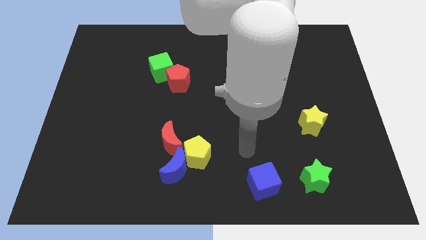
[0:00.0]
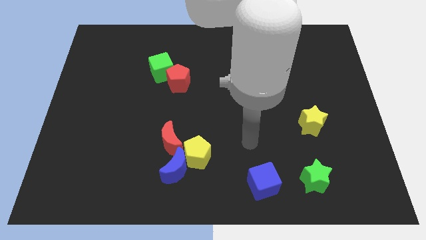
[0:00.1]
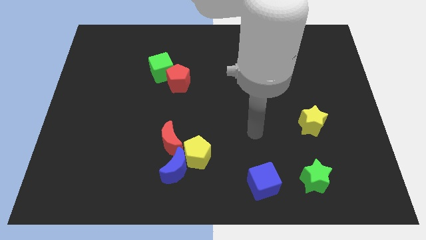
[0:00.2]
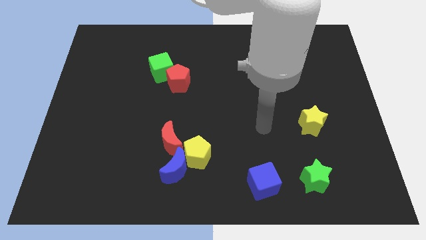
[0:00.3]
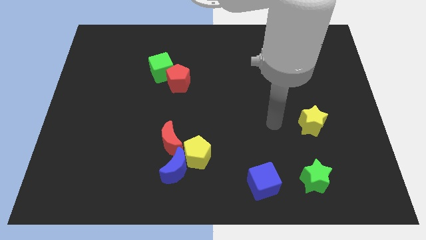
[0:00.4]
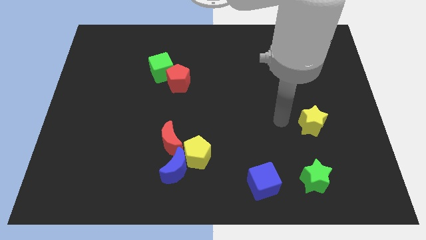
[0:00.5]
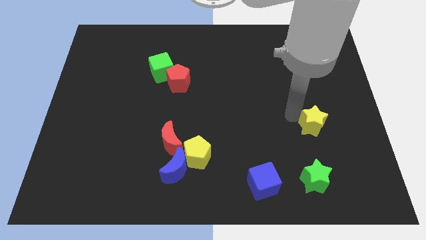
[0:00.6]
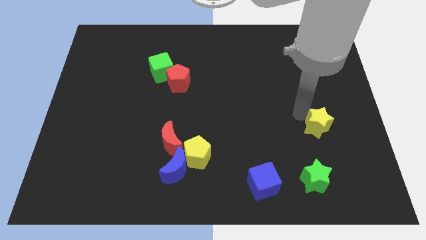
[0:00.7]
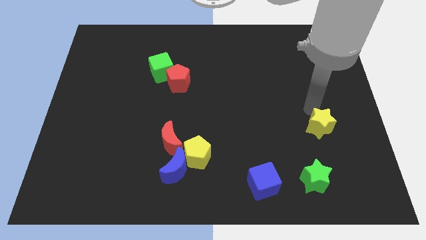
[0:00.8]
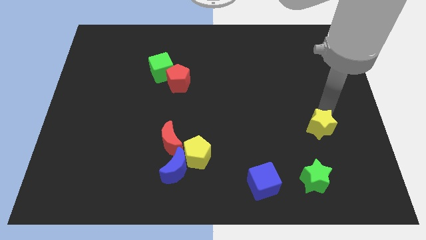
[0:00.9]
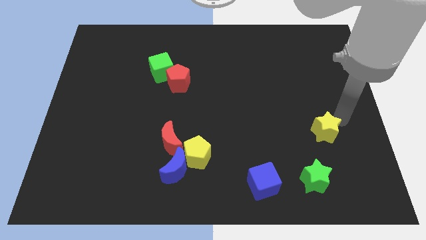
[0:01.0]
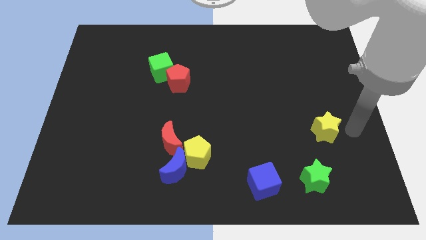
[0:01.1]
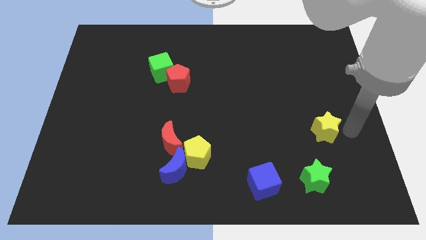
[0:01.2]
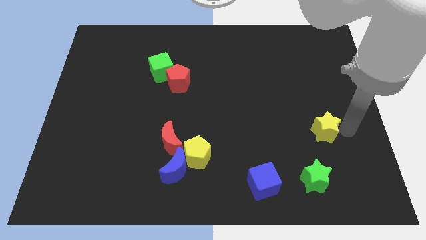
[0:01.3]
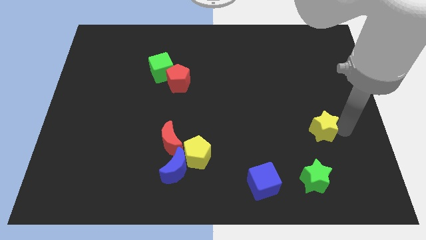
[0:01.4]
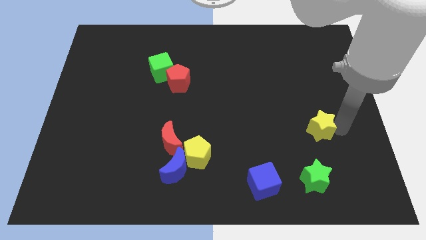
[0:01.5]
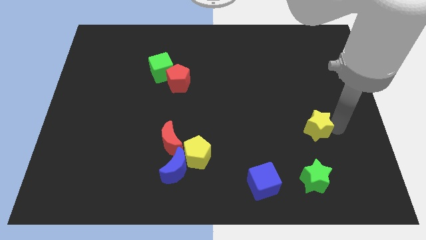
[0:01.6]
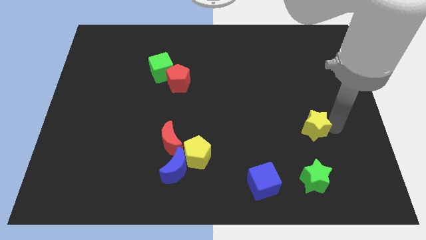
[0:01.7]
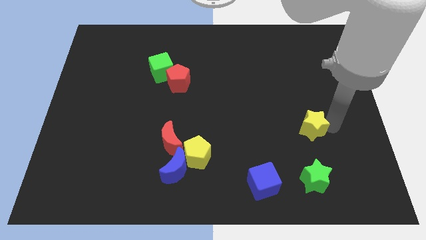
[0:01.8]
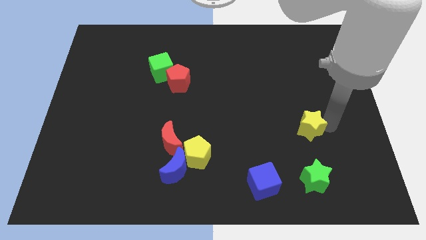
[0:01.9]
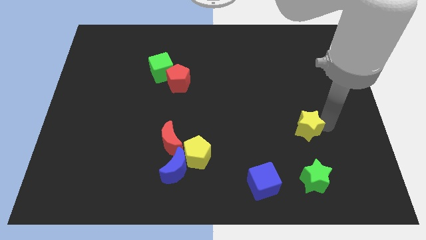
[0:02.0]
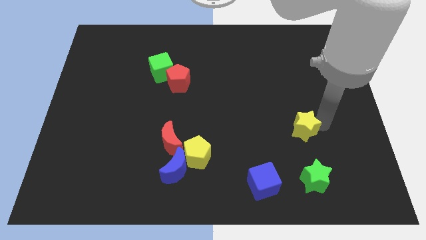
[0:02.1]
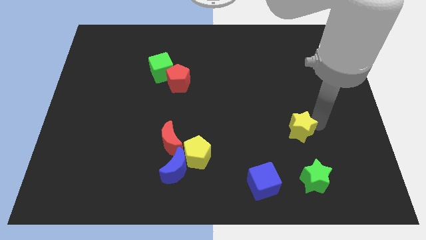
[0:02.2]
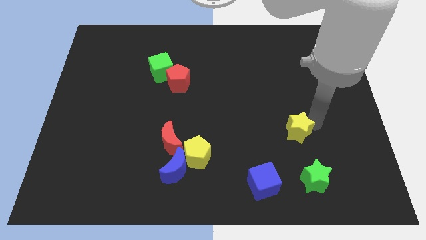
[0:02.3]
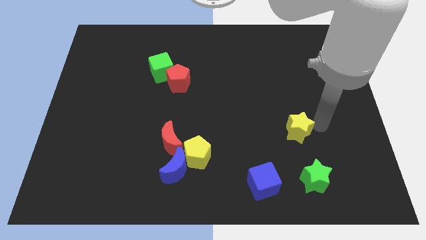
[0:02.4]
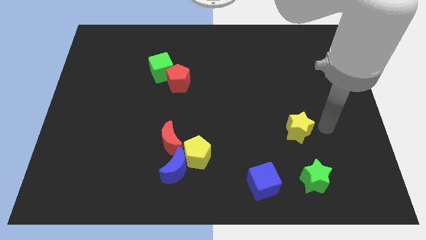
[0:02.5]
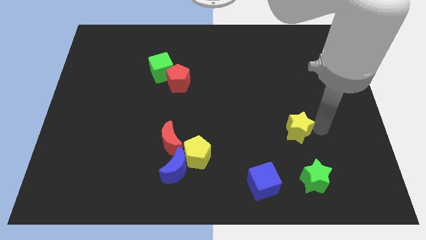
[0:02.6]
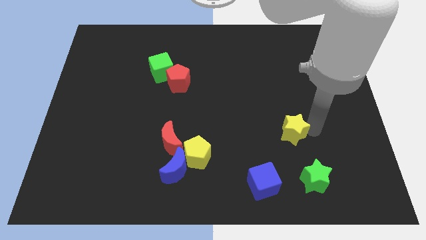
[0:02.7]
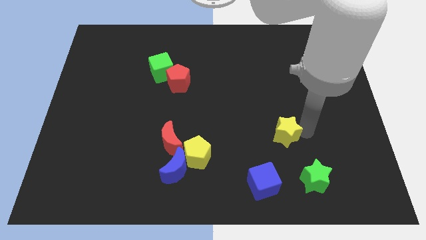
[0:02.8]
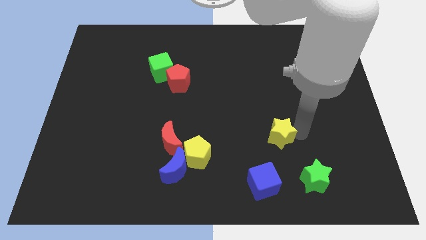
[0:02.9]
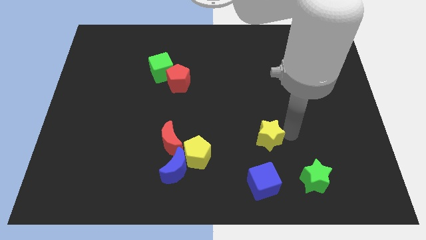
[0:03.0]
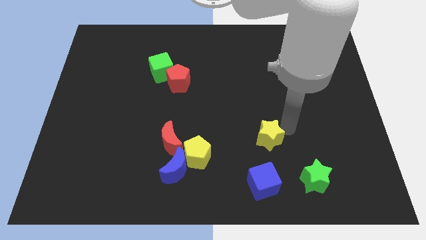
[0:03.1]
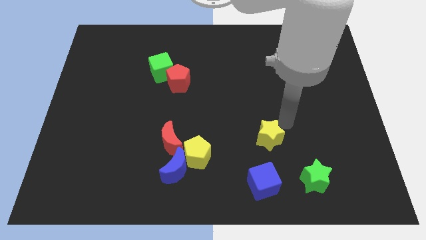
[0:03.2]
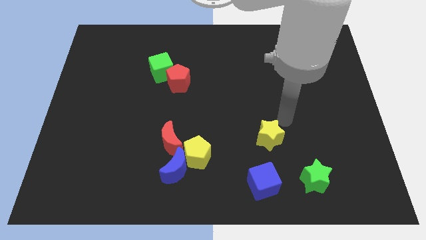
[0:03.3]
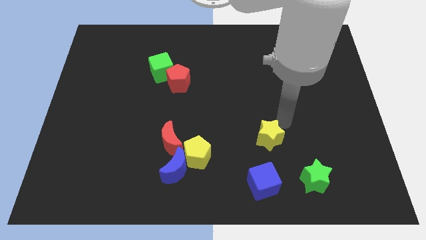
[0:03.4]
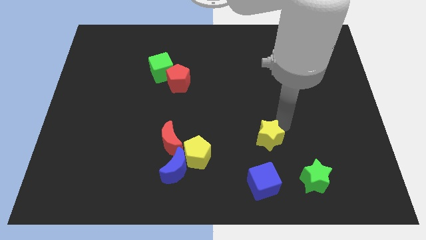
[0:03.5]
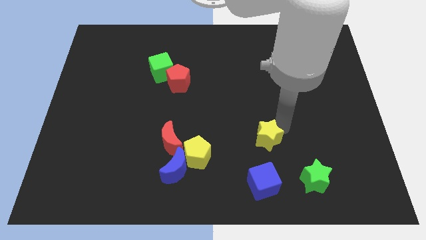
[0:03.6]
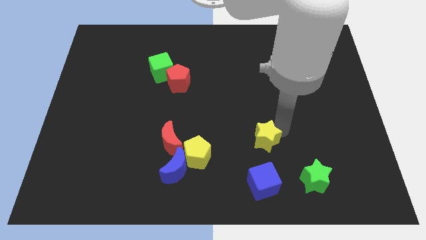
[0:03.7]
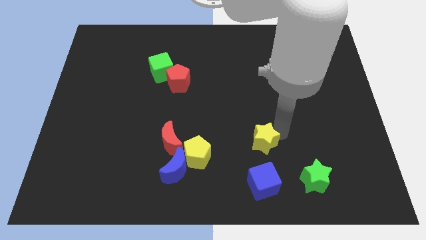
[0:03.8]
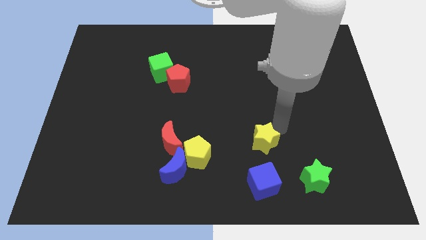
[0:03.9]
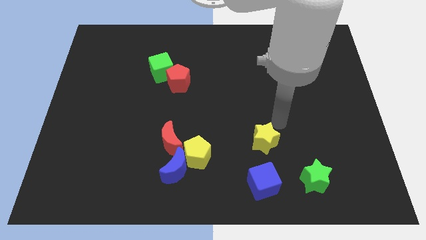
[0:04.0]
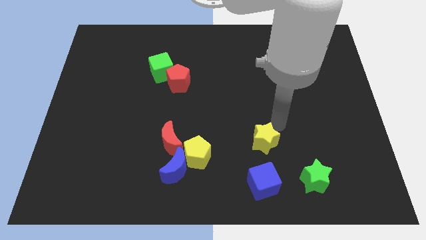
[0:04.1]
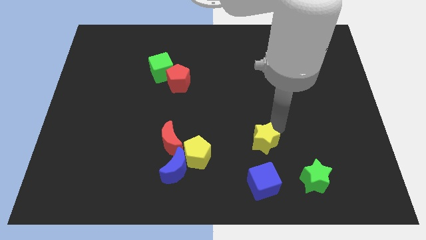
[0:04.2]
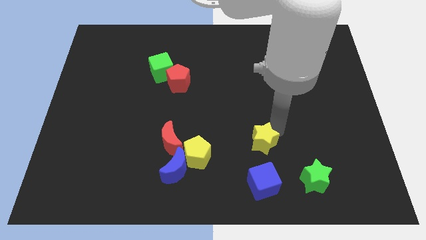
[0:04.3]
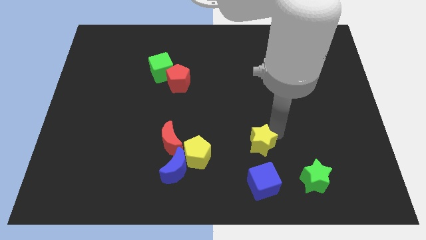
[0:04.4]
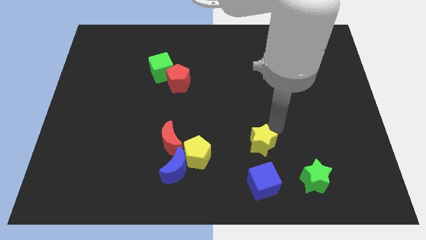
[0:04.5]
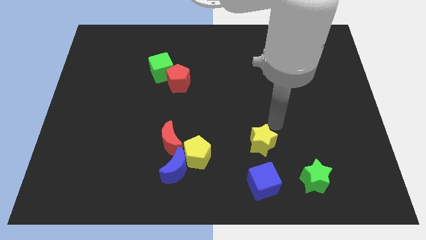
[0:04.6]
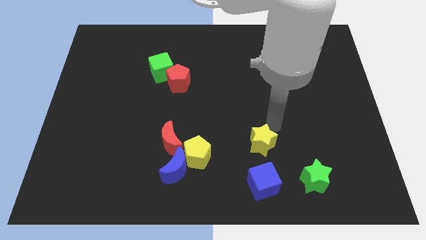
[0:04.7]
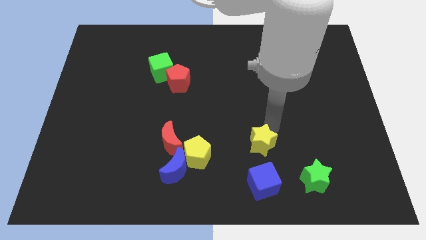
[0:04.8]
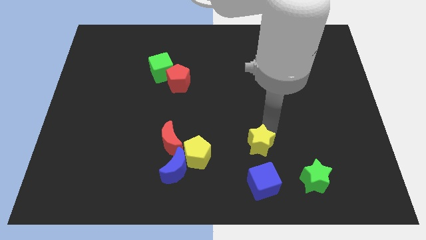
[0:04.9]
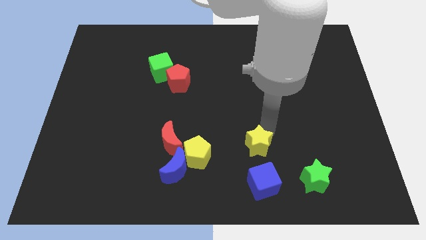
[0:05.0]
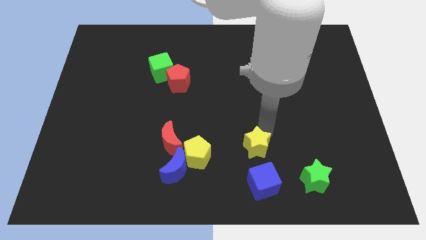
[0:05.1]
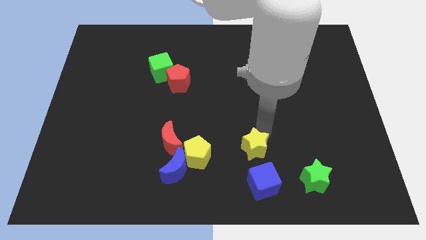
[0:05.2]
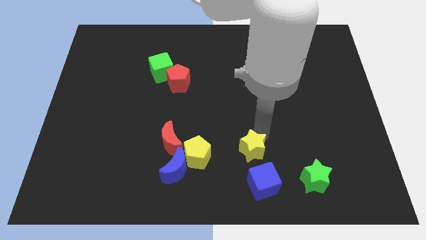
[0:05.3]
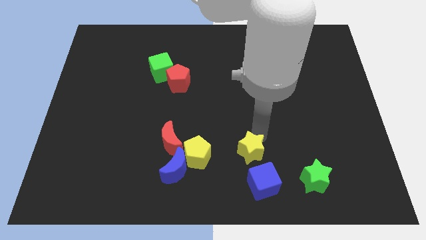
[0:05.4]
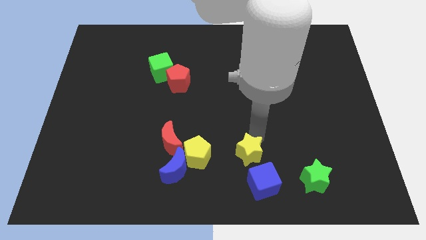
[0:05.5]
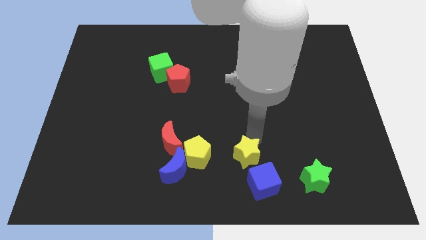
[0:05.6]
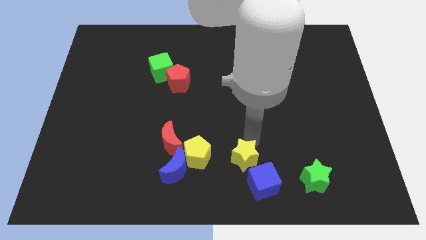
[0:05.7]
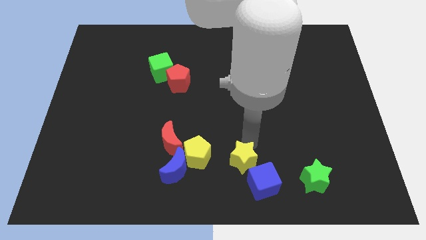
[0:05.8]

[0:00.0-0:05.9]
move the yellow star to the bottom side
